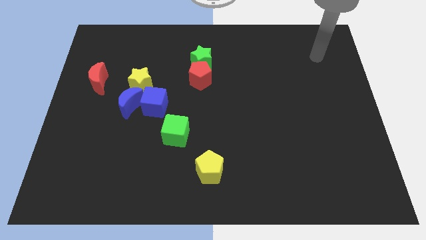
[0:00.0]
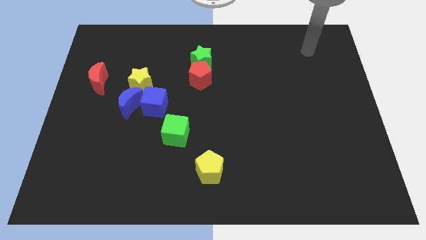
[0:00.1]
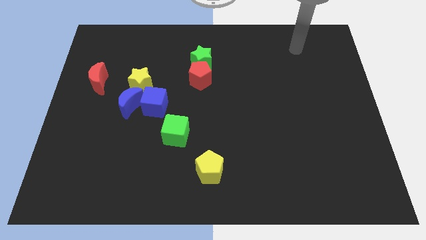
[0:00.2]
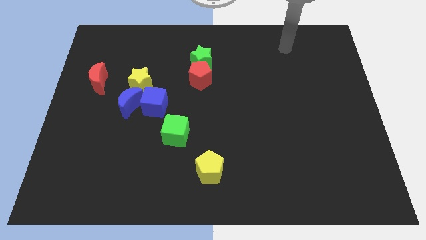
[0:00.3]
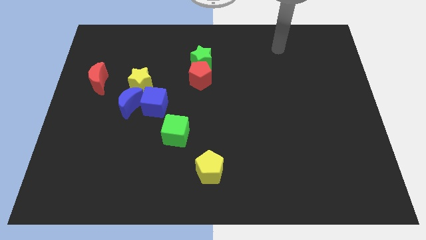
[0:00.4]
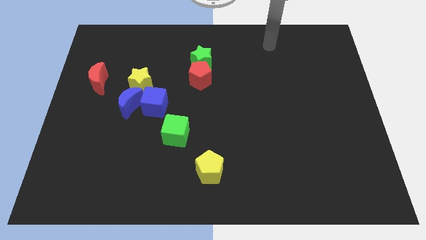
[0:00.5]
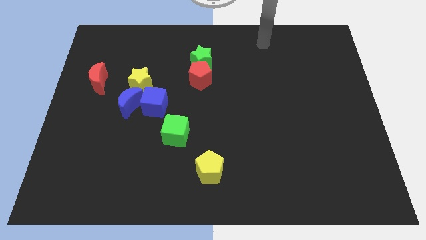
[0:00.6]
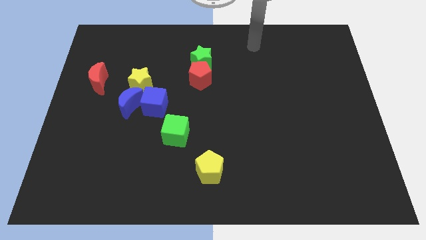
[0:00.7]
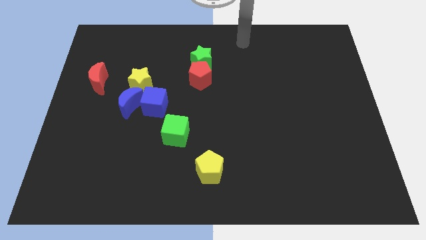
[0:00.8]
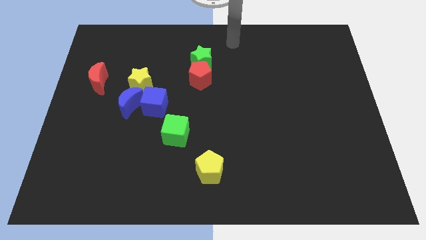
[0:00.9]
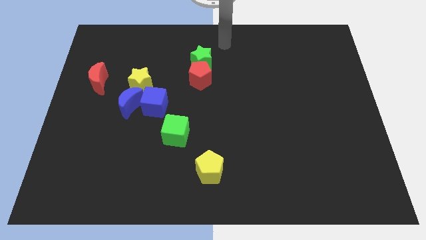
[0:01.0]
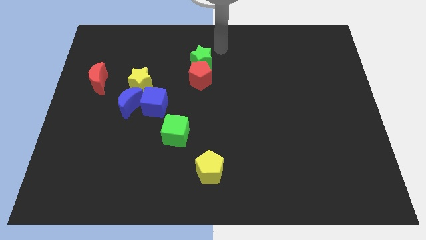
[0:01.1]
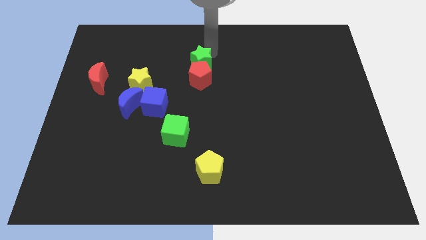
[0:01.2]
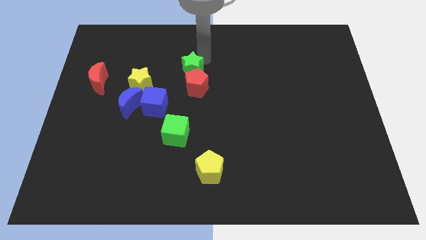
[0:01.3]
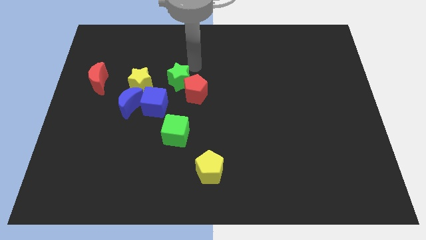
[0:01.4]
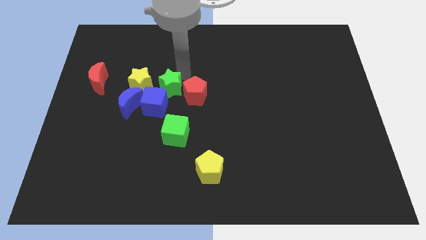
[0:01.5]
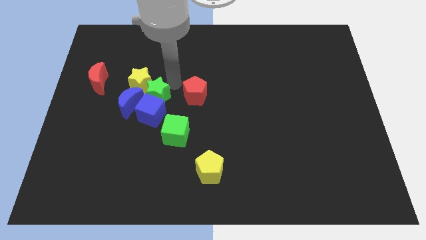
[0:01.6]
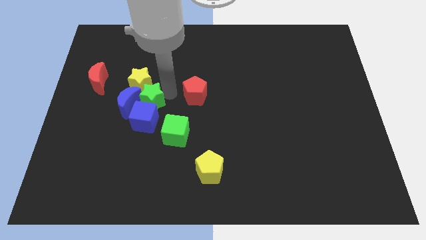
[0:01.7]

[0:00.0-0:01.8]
pull the red pentagon apart from the green star

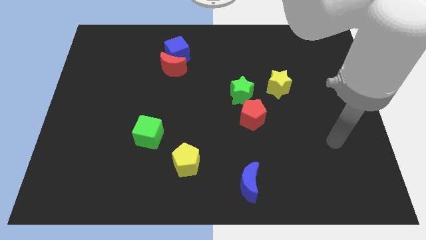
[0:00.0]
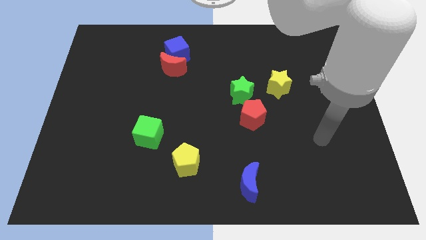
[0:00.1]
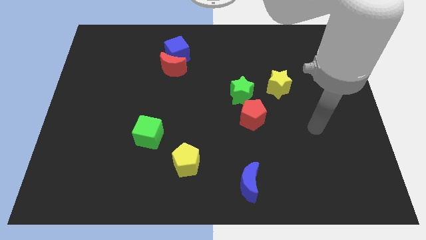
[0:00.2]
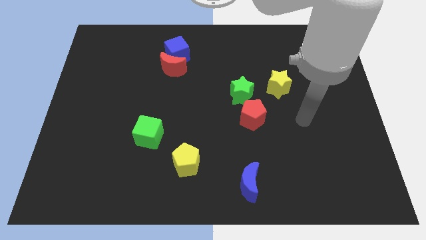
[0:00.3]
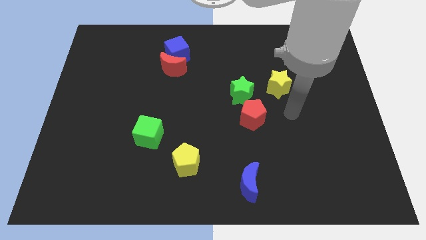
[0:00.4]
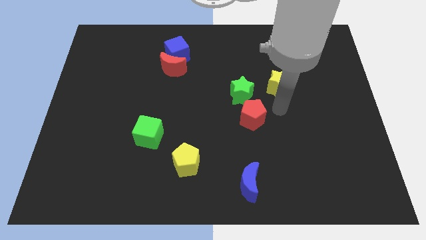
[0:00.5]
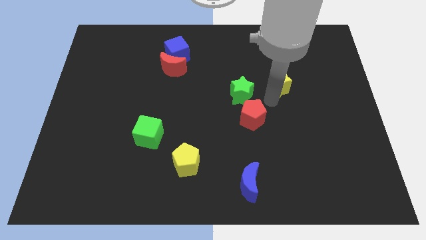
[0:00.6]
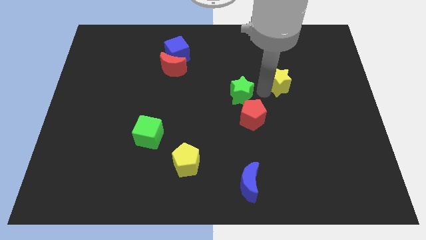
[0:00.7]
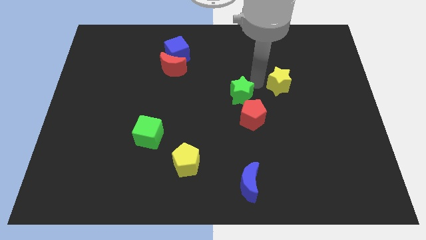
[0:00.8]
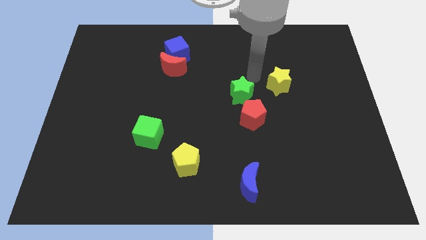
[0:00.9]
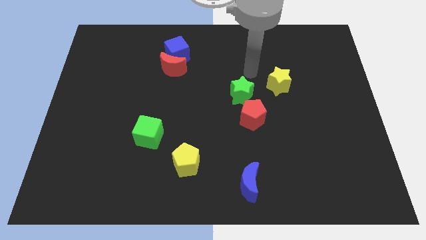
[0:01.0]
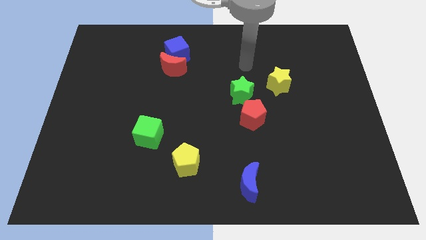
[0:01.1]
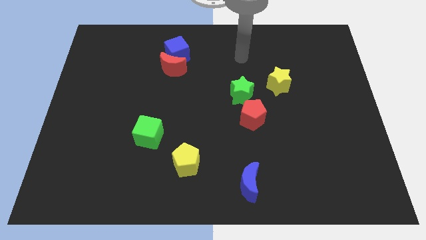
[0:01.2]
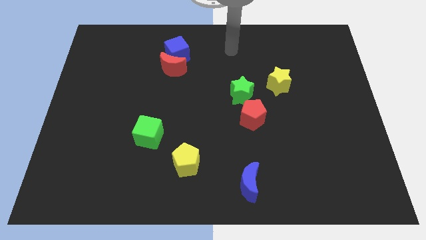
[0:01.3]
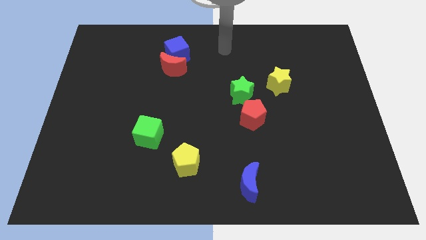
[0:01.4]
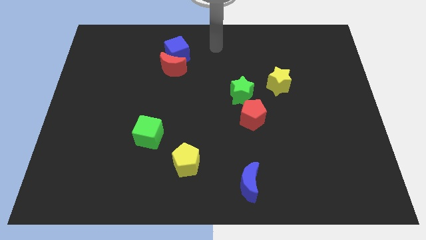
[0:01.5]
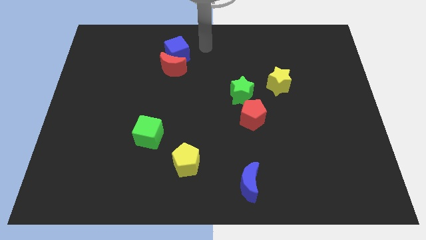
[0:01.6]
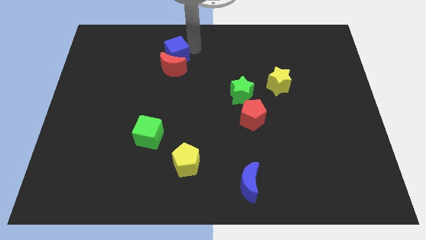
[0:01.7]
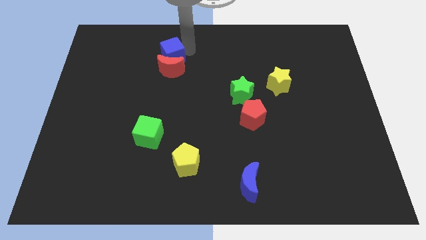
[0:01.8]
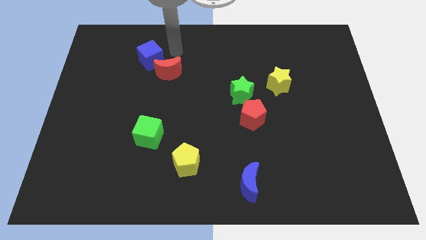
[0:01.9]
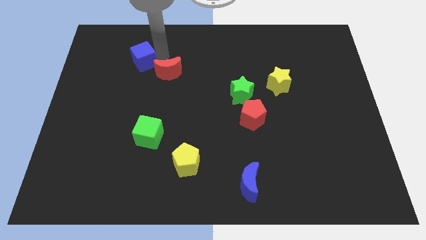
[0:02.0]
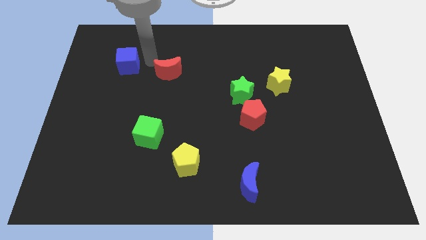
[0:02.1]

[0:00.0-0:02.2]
separate the red moon from the blue cube

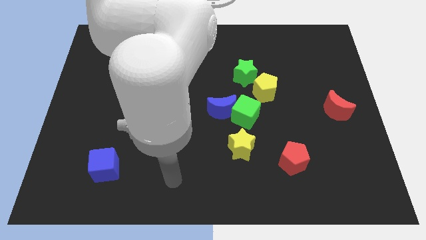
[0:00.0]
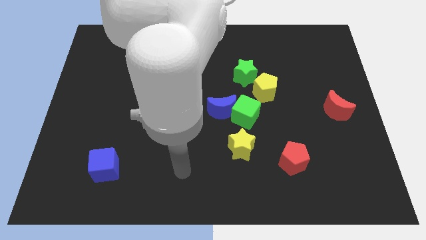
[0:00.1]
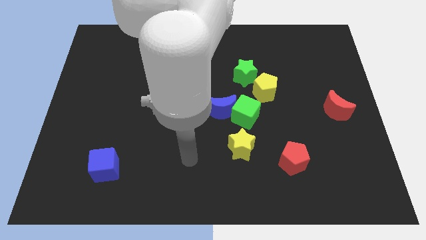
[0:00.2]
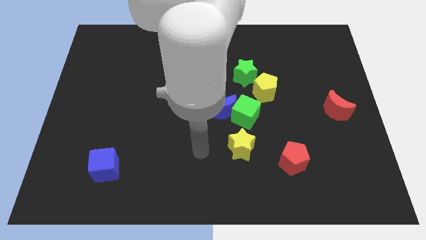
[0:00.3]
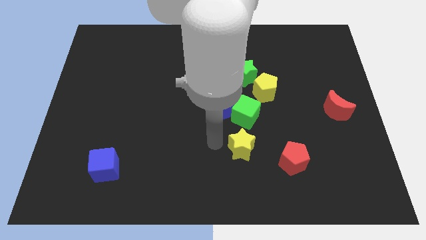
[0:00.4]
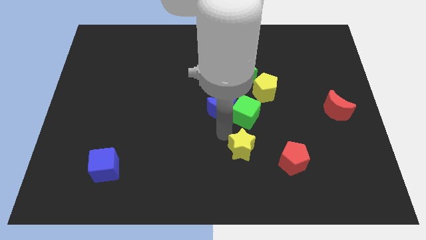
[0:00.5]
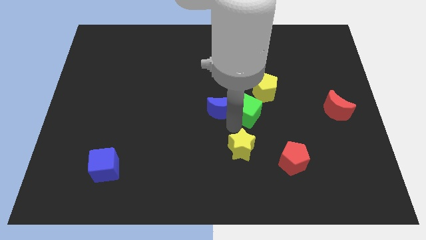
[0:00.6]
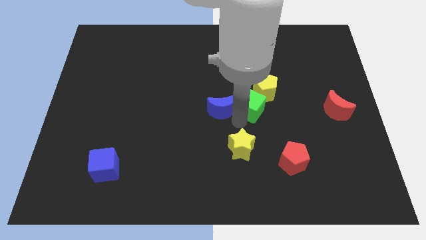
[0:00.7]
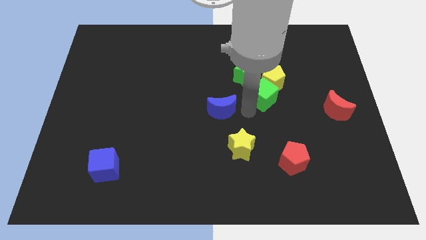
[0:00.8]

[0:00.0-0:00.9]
move the blue moon away from the green cube

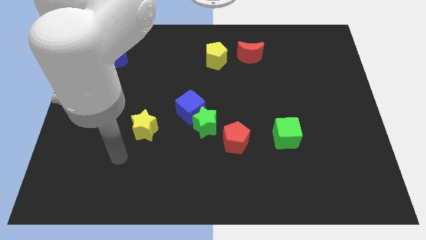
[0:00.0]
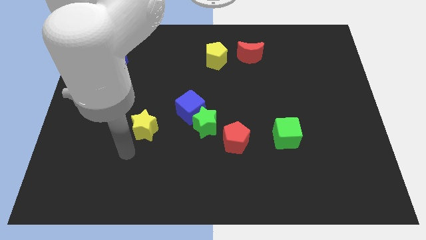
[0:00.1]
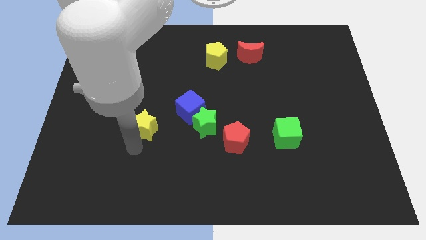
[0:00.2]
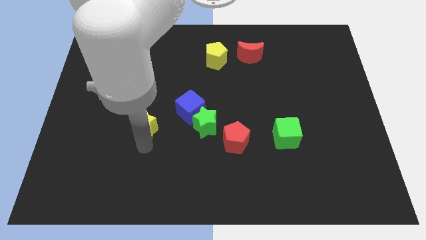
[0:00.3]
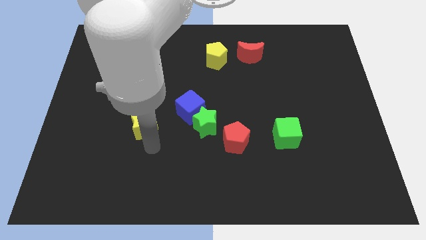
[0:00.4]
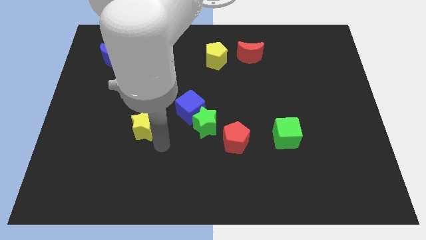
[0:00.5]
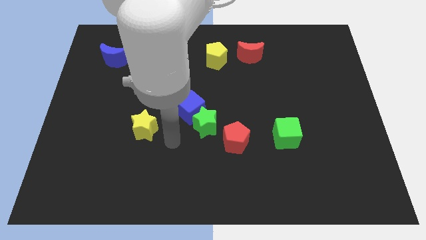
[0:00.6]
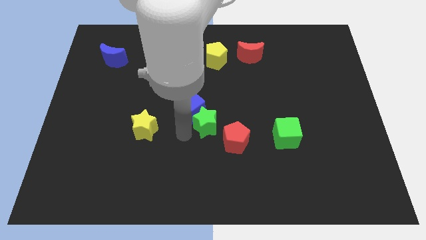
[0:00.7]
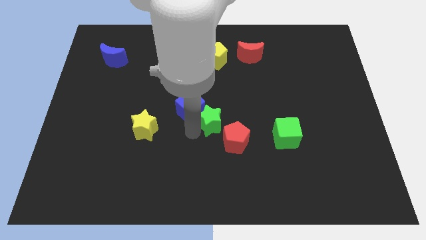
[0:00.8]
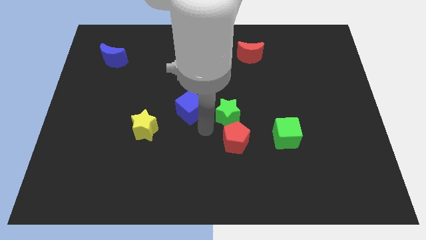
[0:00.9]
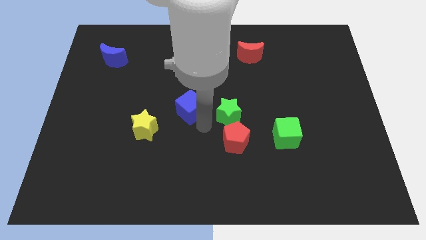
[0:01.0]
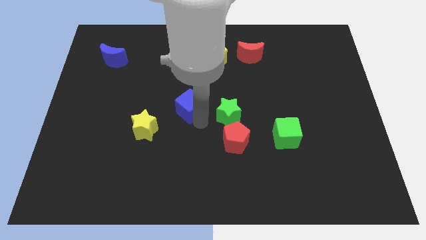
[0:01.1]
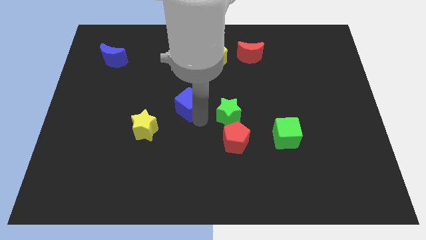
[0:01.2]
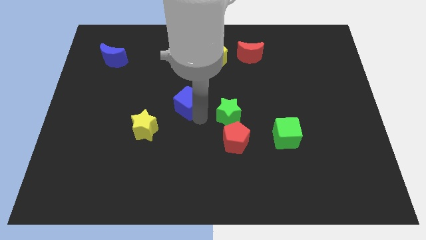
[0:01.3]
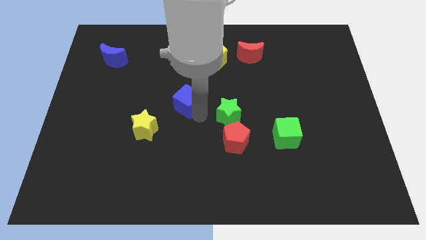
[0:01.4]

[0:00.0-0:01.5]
separate the blue cube from the green star

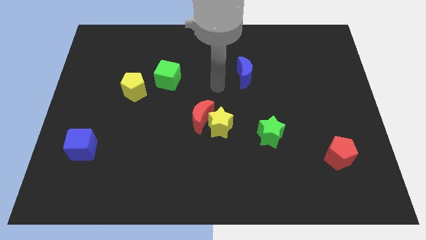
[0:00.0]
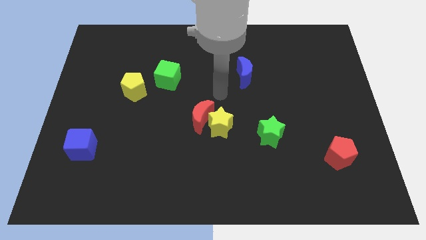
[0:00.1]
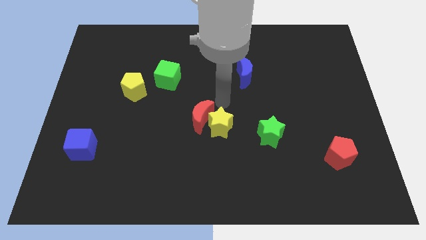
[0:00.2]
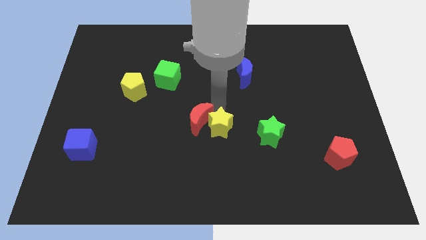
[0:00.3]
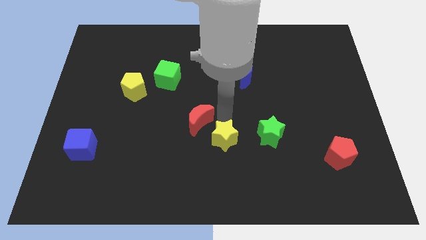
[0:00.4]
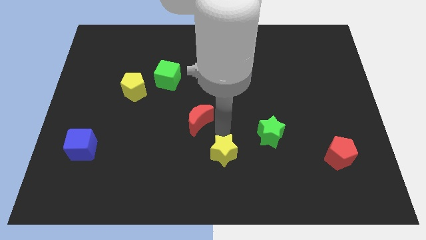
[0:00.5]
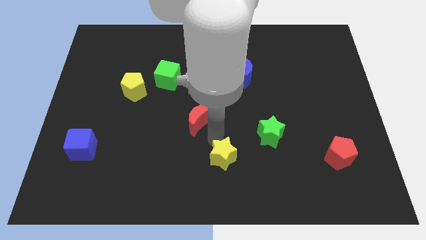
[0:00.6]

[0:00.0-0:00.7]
separate the red moon from the yellow star

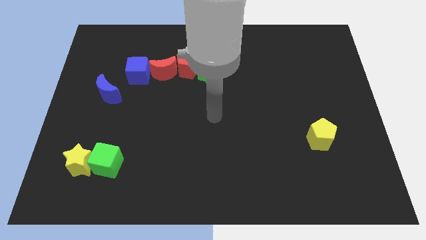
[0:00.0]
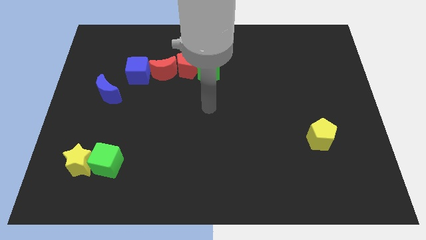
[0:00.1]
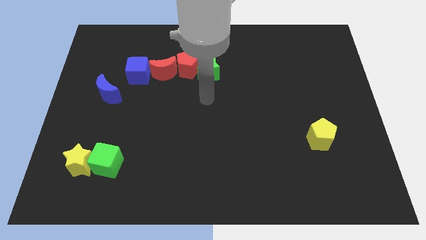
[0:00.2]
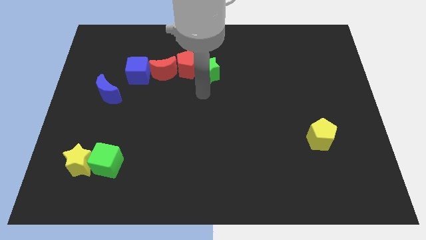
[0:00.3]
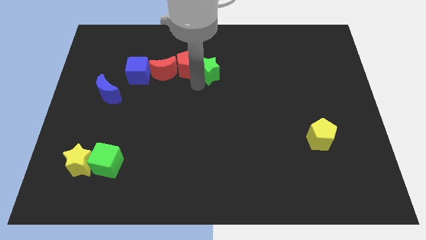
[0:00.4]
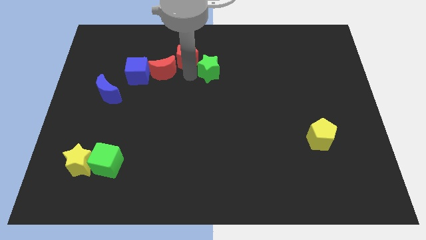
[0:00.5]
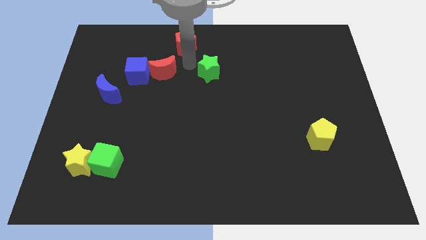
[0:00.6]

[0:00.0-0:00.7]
pull the green star apart from the red pentagon

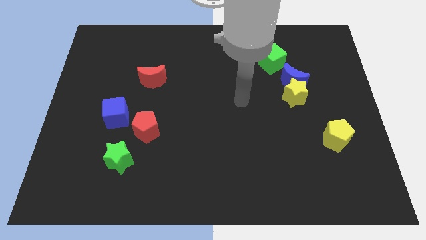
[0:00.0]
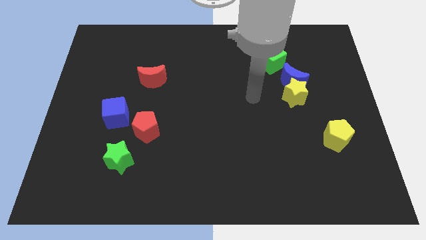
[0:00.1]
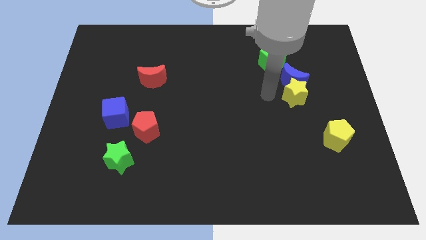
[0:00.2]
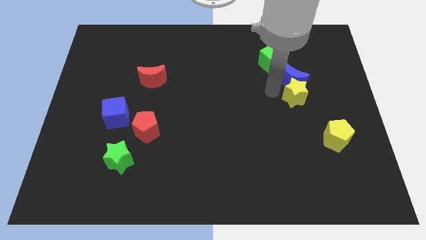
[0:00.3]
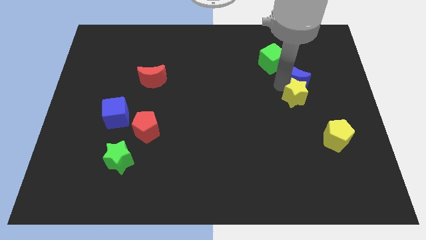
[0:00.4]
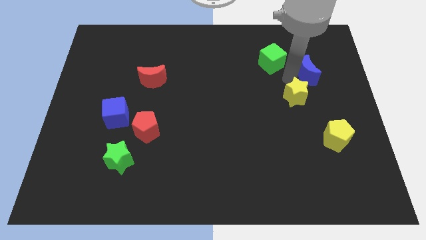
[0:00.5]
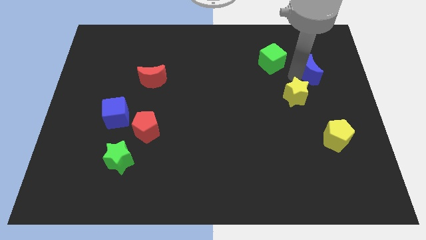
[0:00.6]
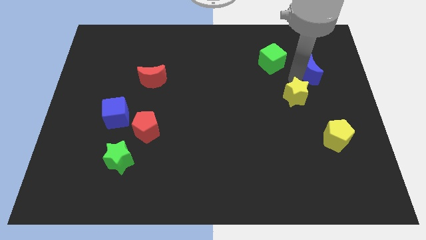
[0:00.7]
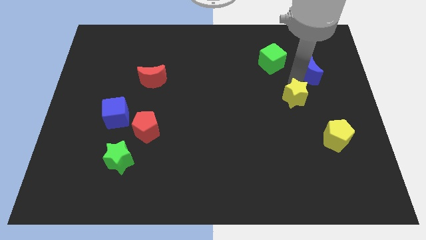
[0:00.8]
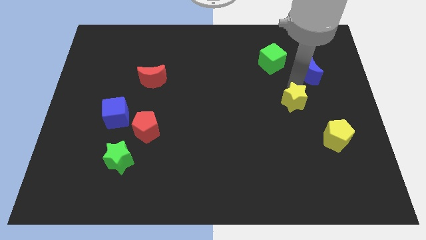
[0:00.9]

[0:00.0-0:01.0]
separate the yellow star from the blue moon

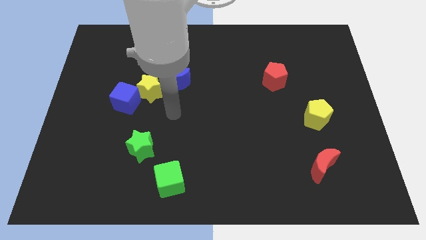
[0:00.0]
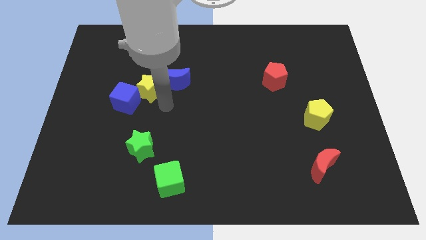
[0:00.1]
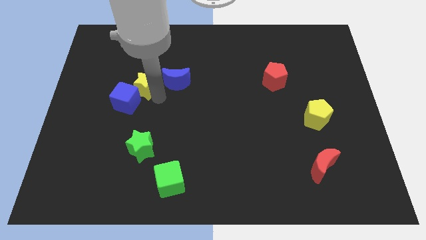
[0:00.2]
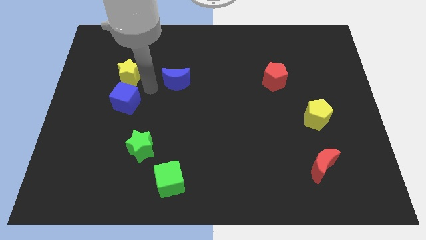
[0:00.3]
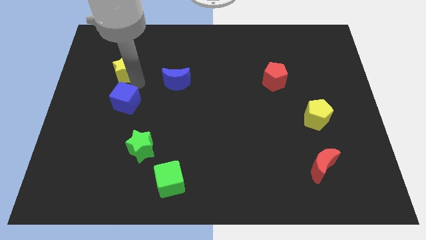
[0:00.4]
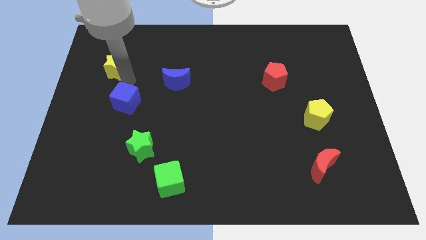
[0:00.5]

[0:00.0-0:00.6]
pull the blue cube apart from the yellow star
